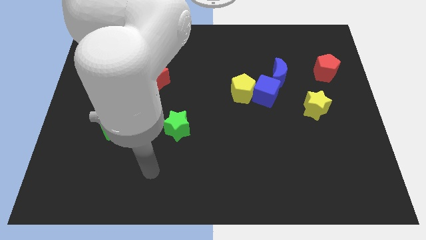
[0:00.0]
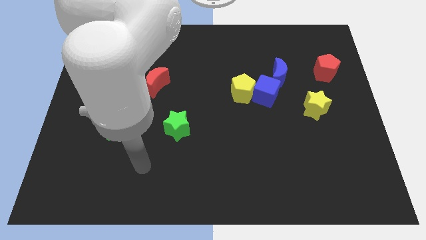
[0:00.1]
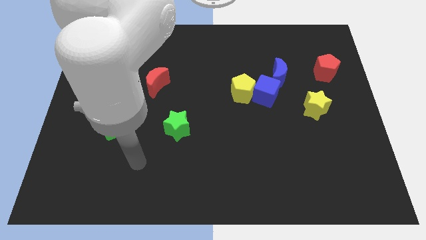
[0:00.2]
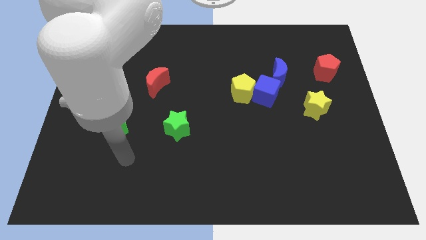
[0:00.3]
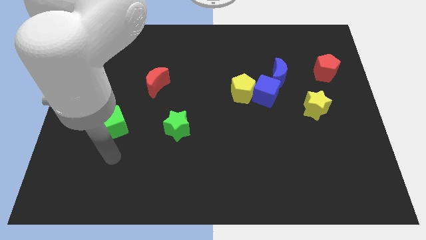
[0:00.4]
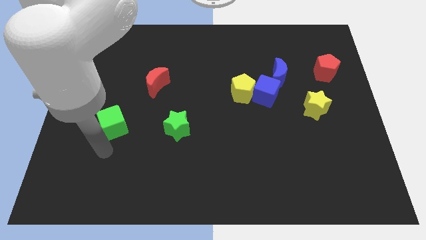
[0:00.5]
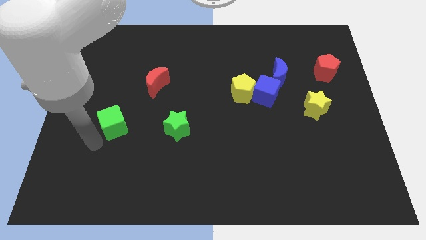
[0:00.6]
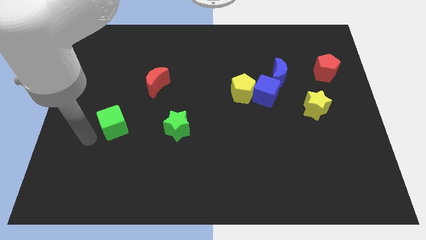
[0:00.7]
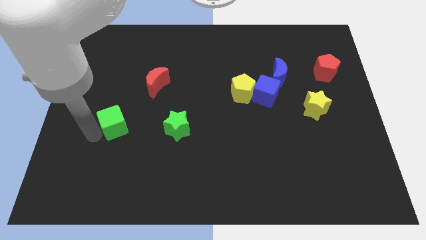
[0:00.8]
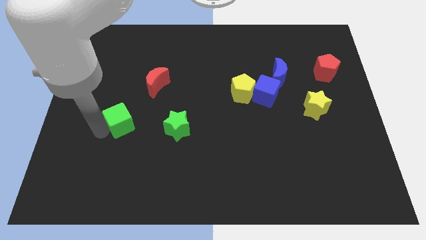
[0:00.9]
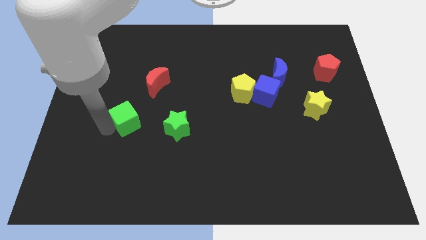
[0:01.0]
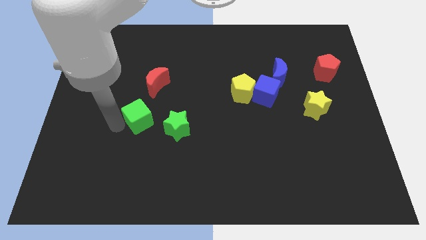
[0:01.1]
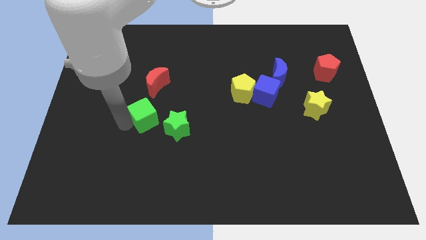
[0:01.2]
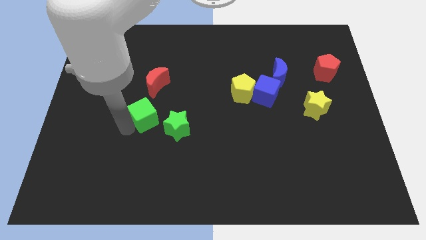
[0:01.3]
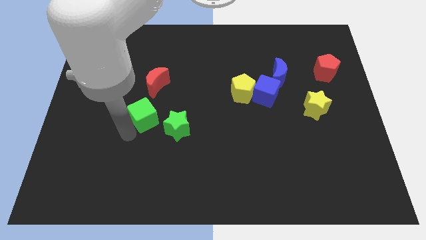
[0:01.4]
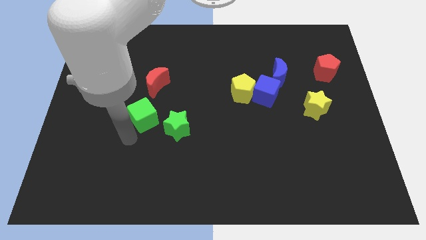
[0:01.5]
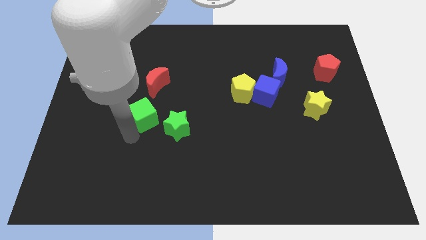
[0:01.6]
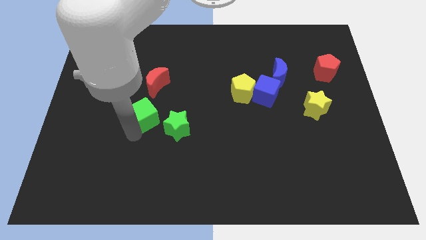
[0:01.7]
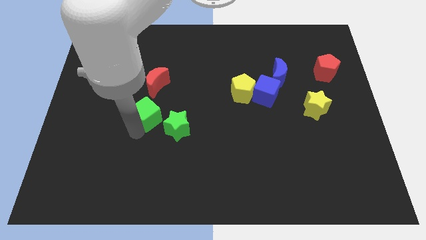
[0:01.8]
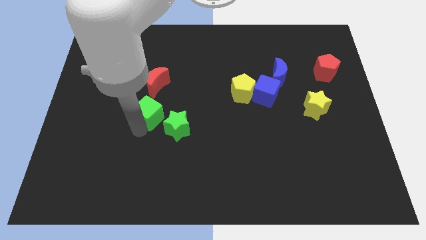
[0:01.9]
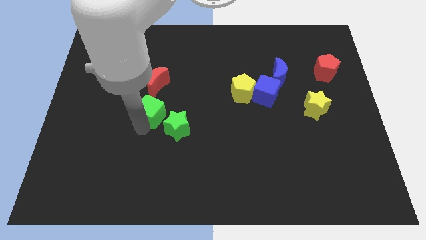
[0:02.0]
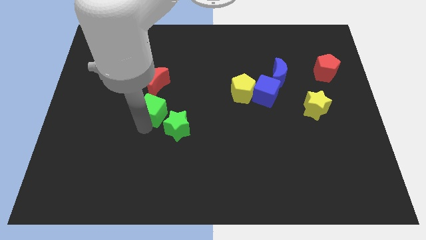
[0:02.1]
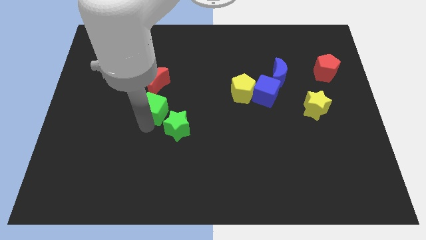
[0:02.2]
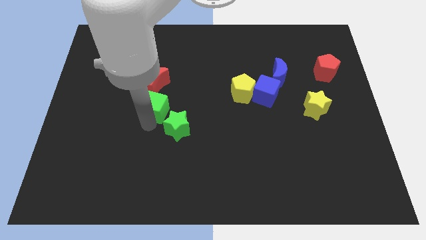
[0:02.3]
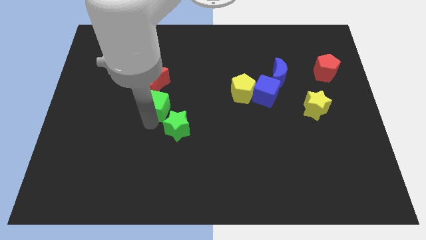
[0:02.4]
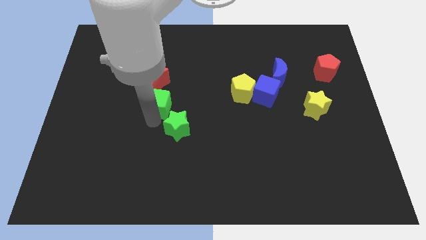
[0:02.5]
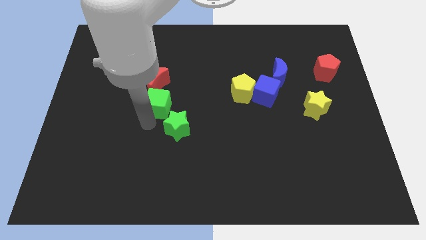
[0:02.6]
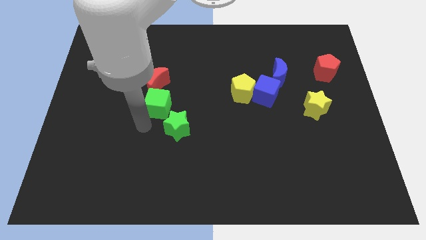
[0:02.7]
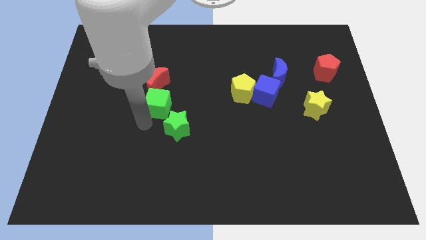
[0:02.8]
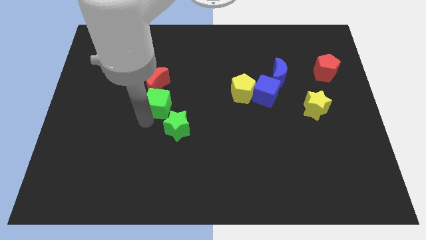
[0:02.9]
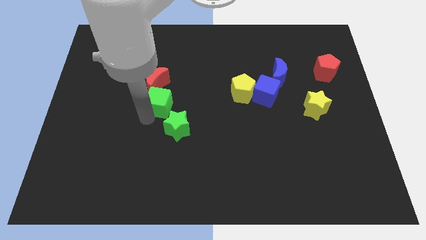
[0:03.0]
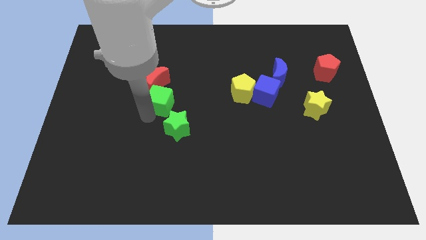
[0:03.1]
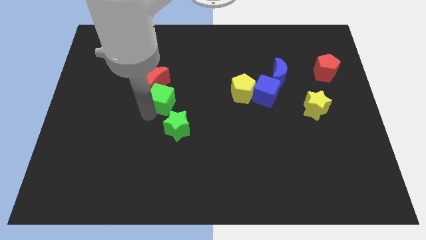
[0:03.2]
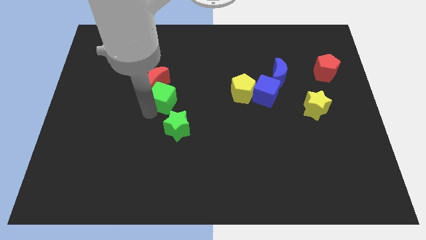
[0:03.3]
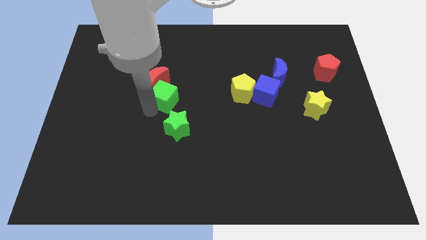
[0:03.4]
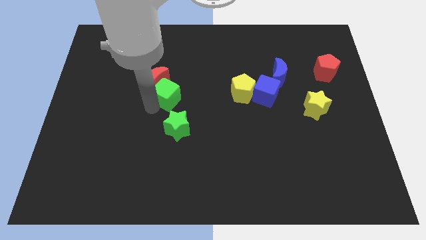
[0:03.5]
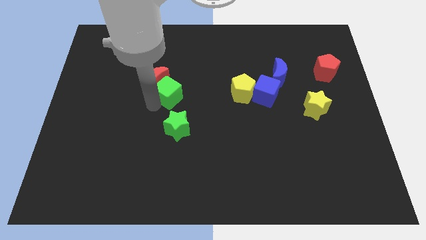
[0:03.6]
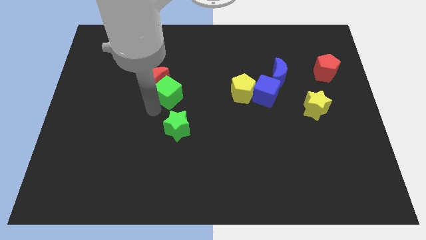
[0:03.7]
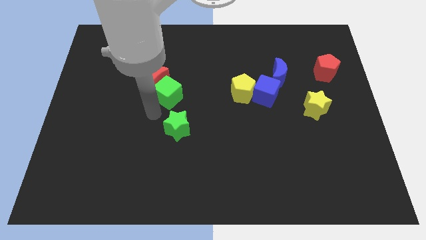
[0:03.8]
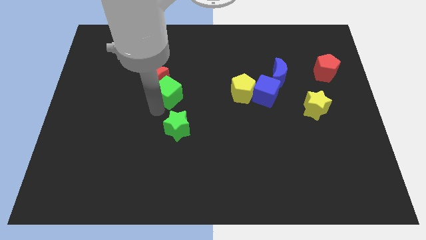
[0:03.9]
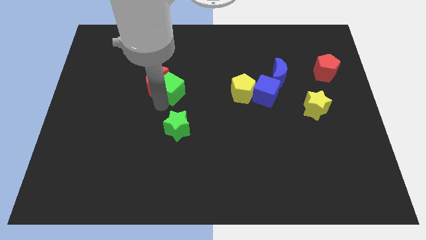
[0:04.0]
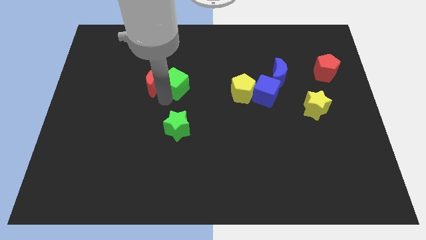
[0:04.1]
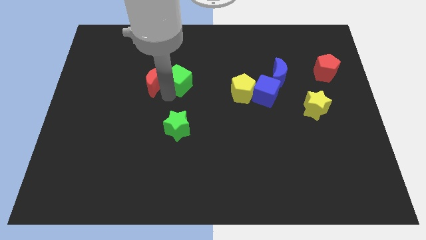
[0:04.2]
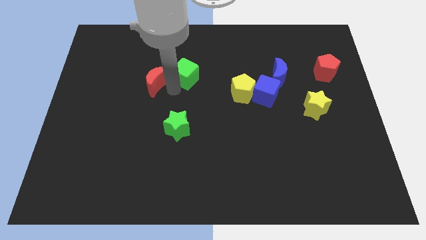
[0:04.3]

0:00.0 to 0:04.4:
slide the green cube diagonally up and to the right

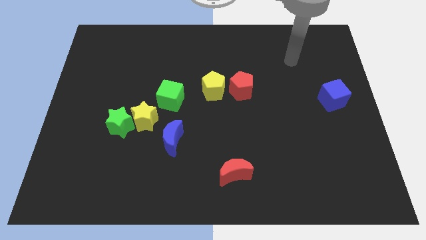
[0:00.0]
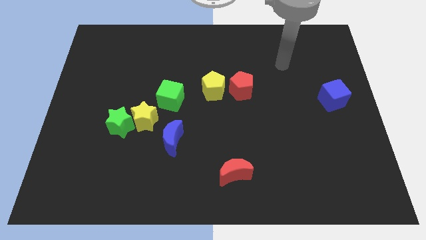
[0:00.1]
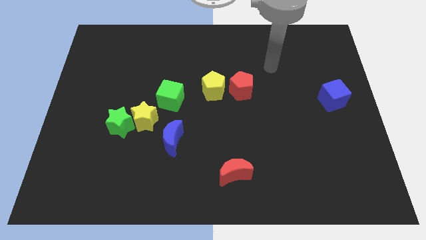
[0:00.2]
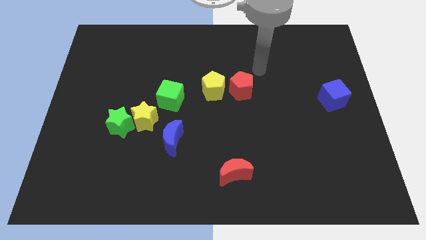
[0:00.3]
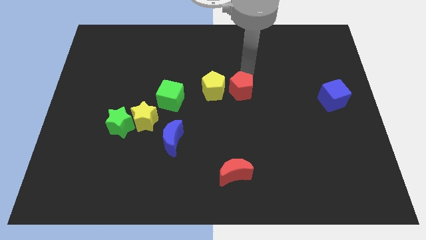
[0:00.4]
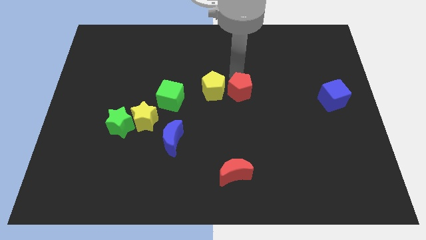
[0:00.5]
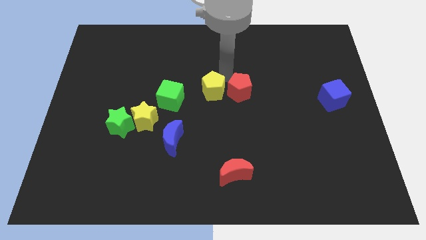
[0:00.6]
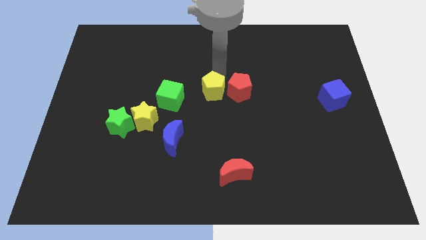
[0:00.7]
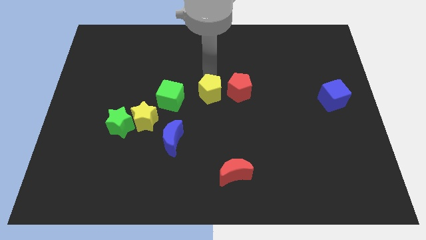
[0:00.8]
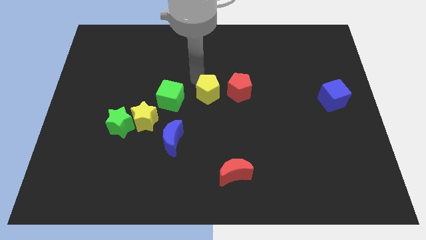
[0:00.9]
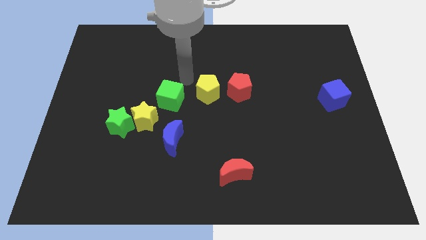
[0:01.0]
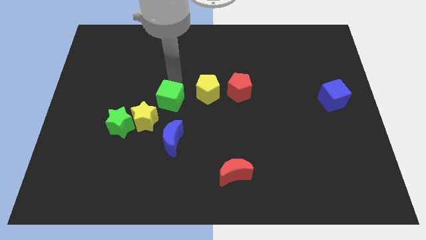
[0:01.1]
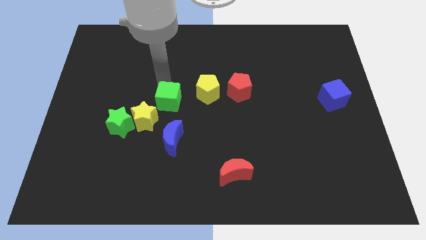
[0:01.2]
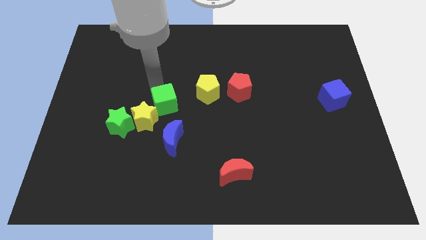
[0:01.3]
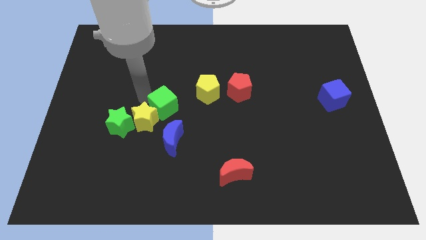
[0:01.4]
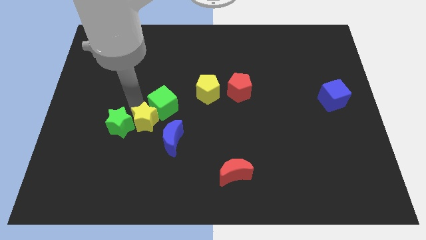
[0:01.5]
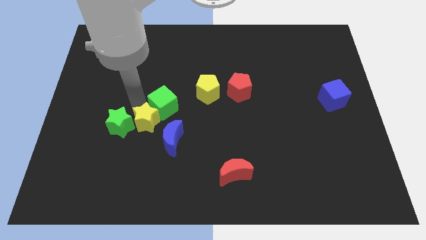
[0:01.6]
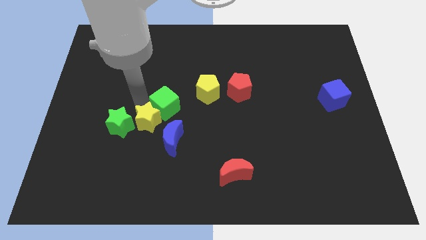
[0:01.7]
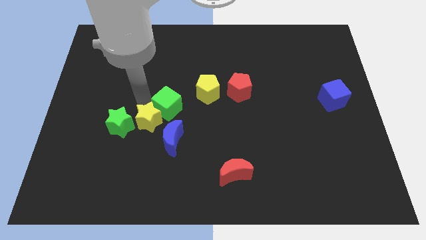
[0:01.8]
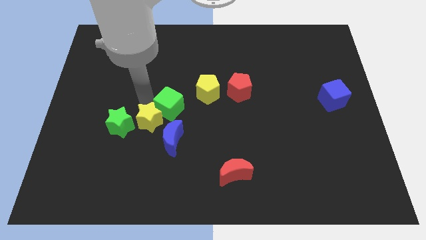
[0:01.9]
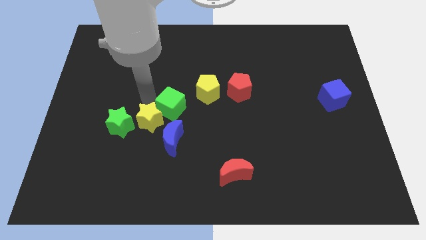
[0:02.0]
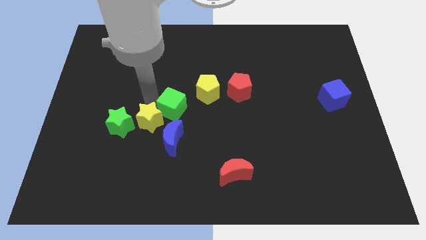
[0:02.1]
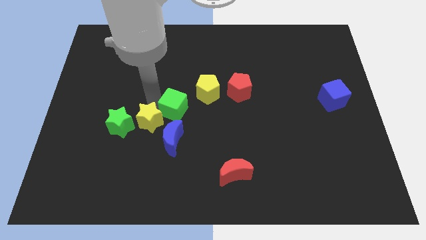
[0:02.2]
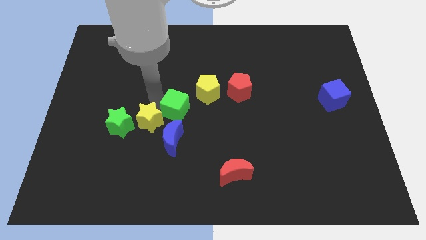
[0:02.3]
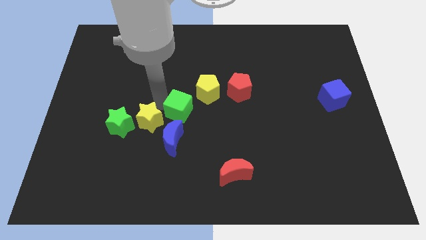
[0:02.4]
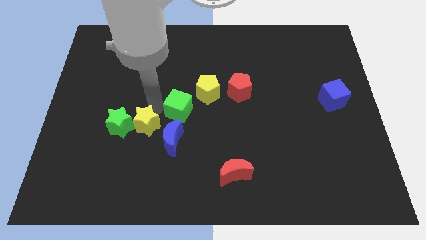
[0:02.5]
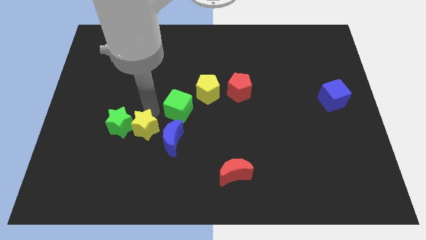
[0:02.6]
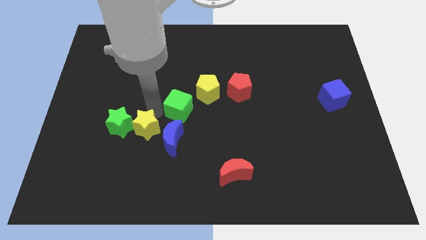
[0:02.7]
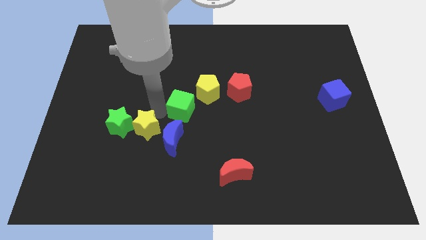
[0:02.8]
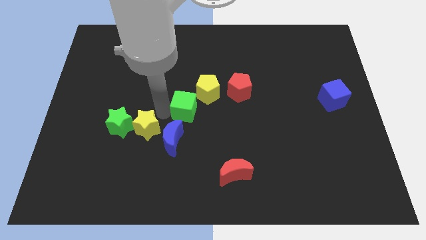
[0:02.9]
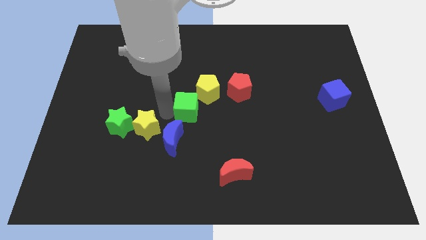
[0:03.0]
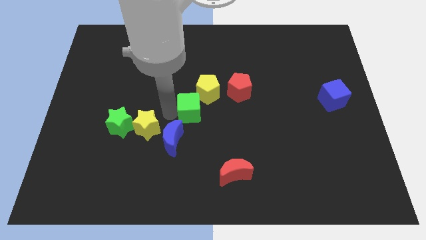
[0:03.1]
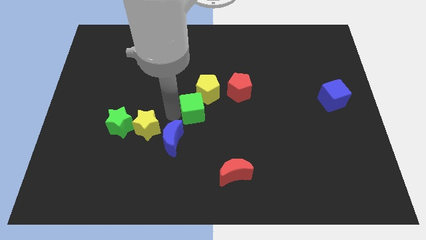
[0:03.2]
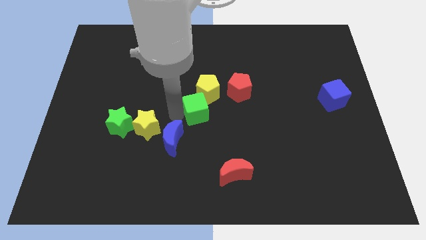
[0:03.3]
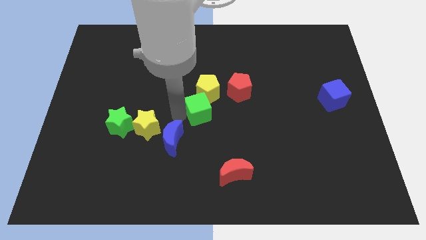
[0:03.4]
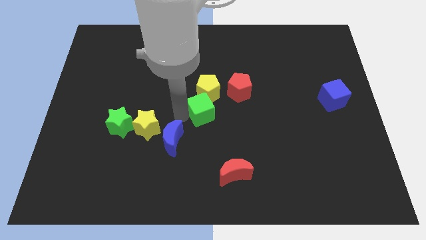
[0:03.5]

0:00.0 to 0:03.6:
move the green cube a little bit to the right
